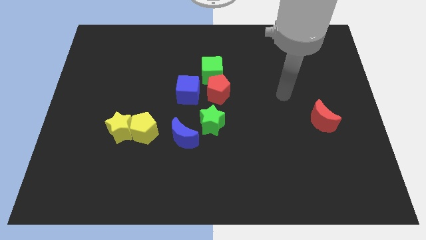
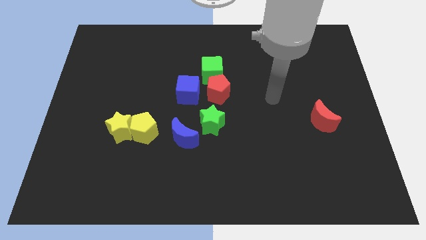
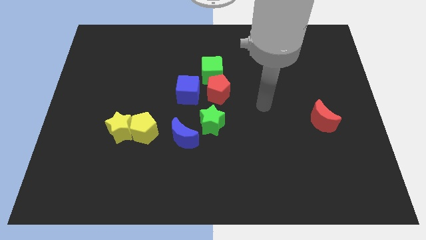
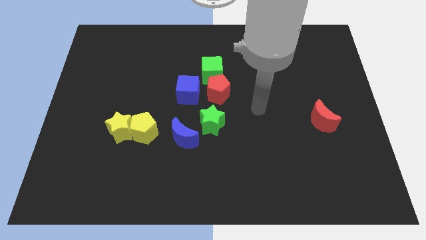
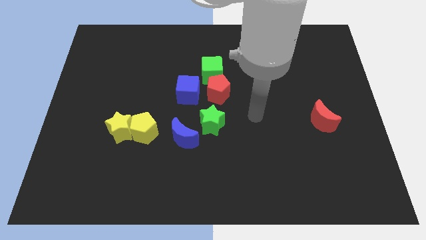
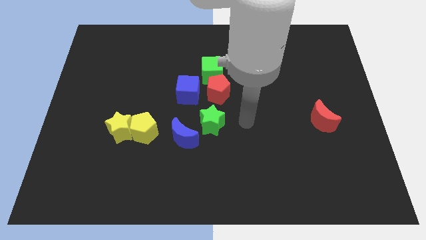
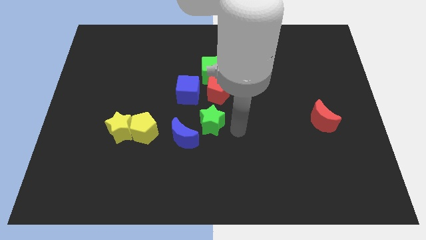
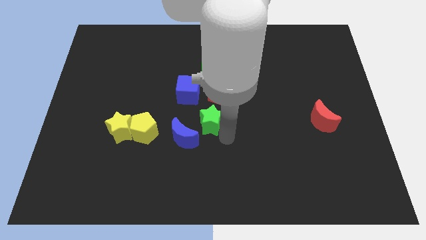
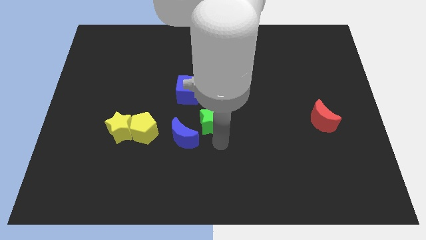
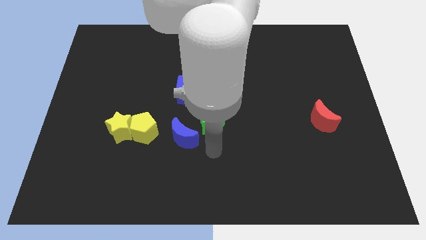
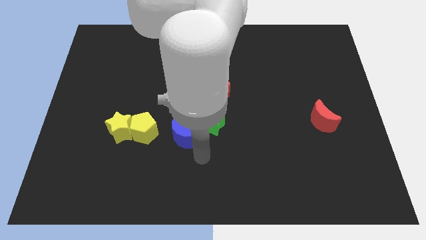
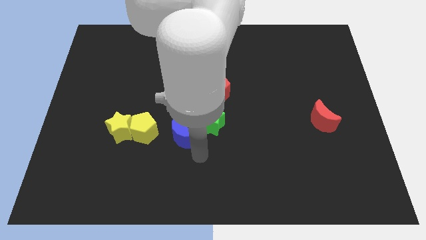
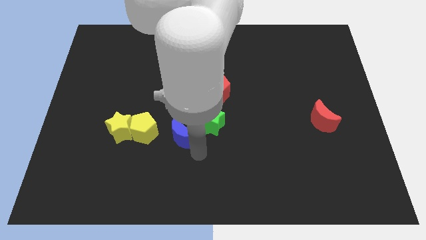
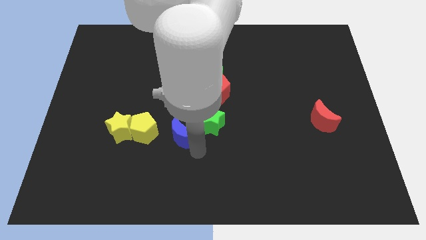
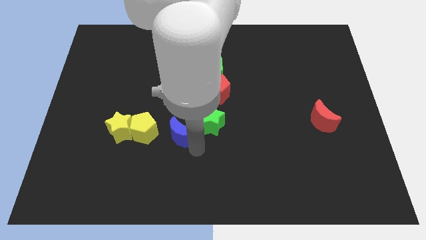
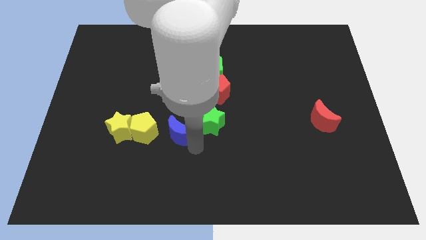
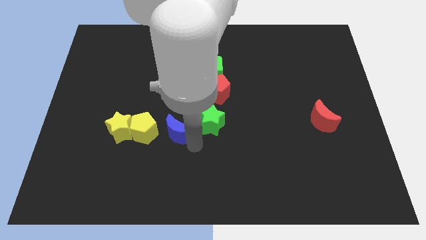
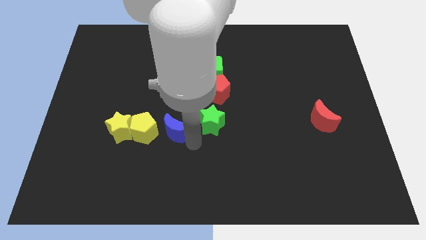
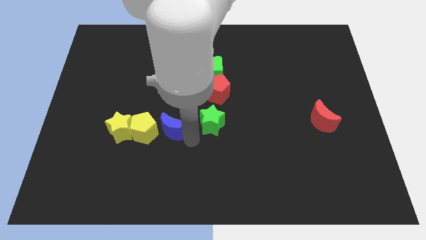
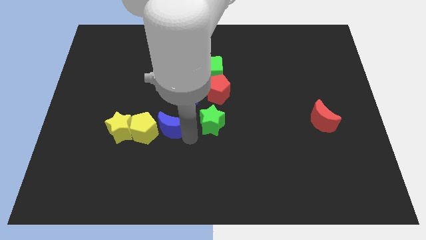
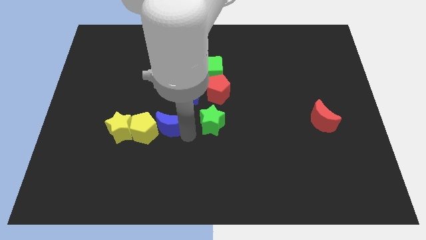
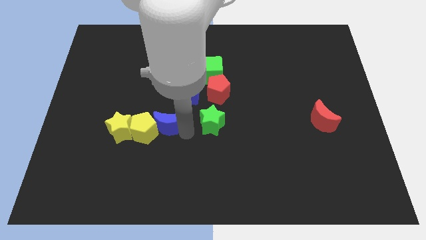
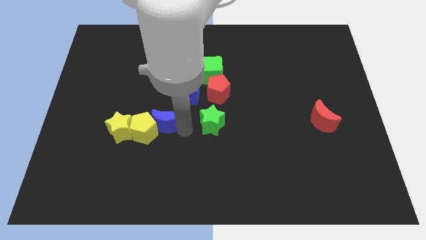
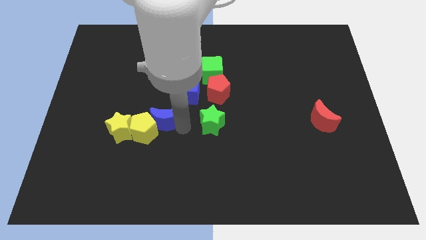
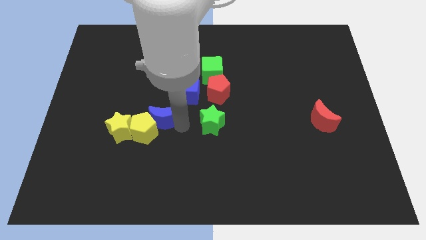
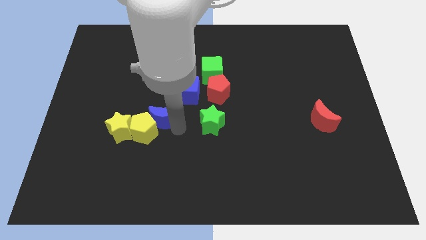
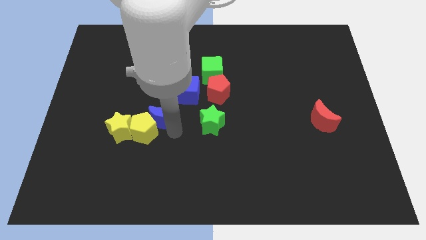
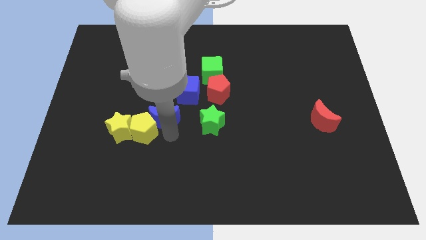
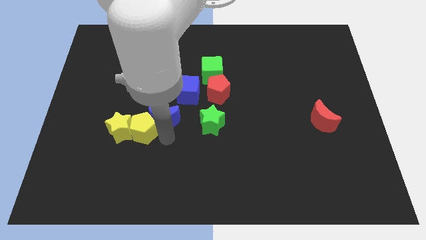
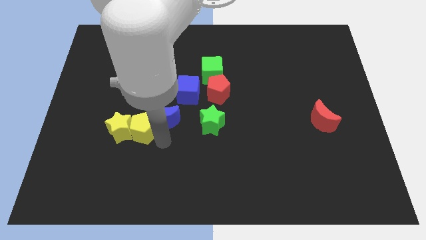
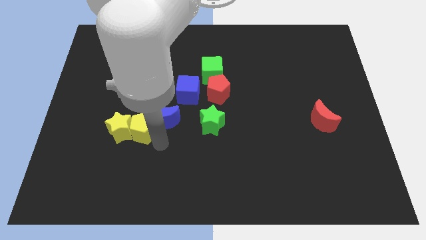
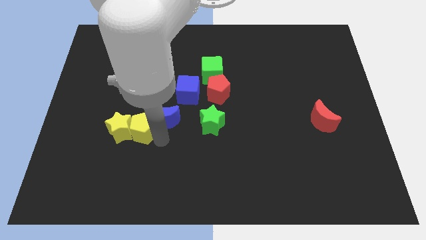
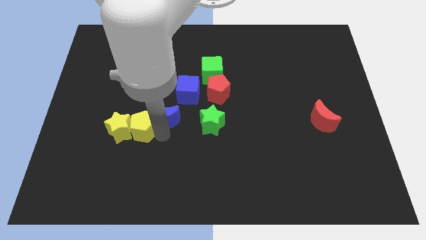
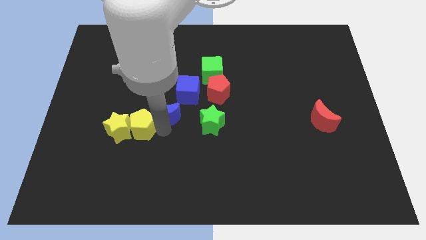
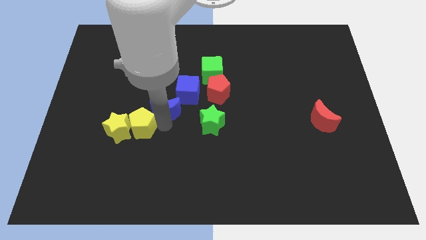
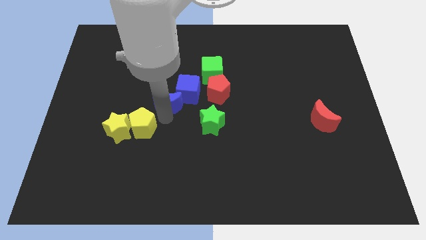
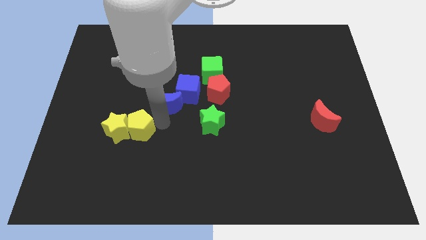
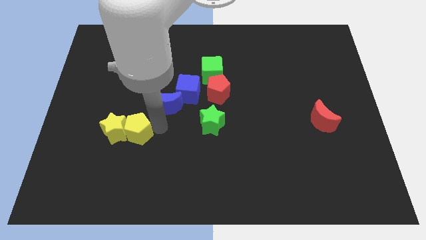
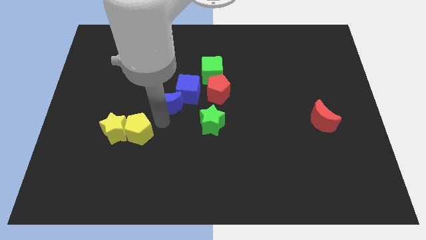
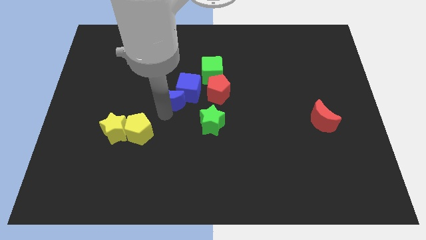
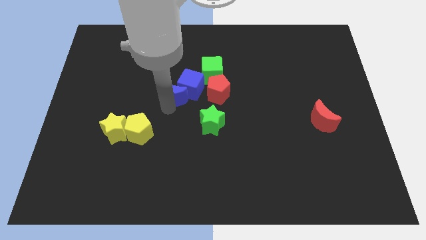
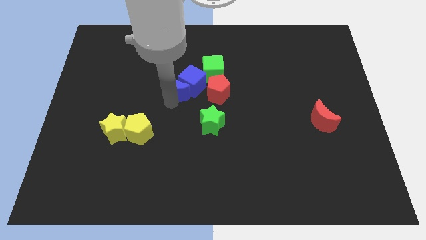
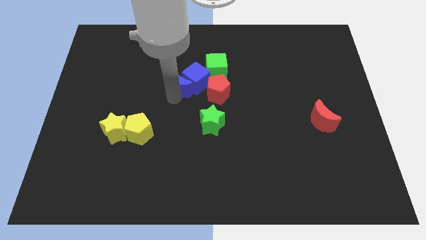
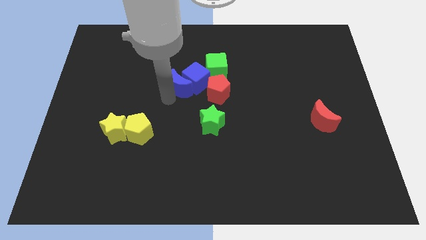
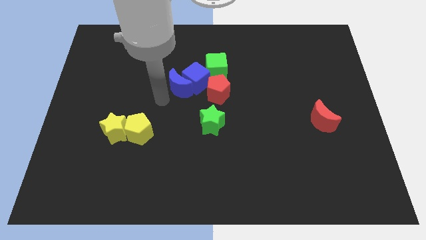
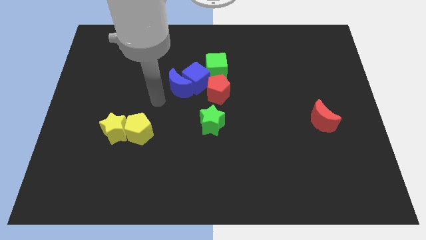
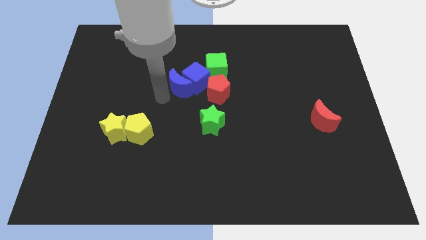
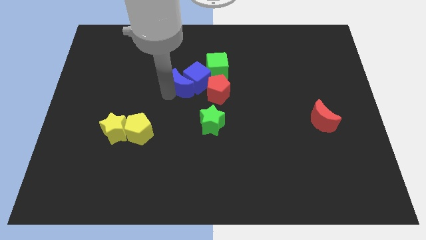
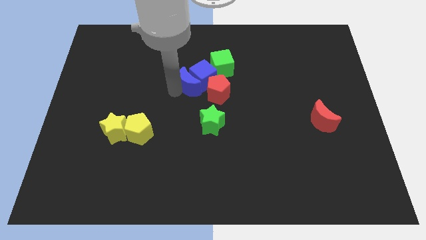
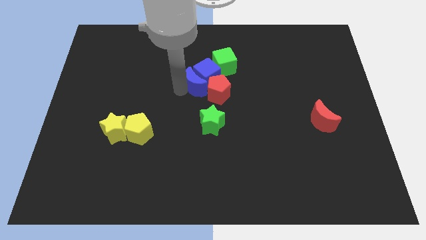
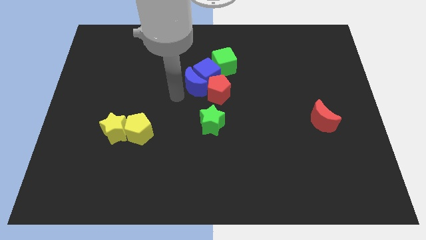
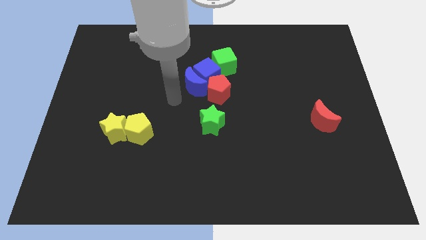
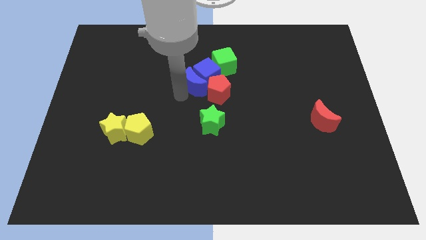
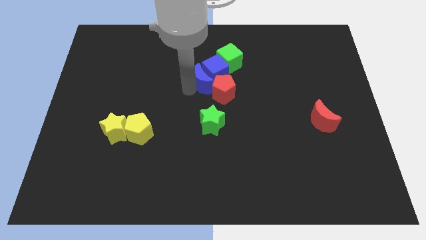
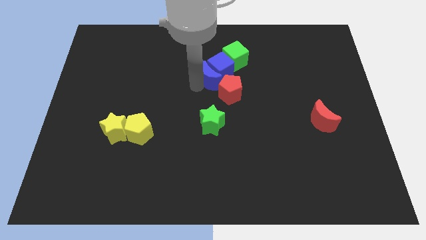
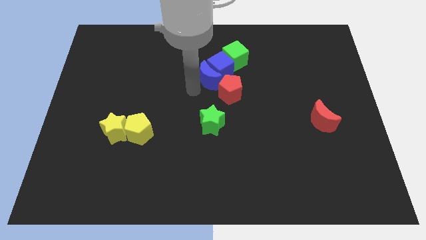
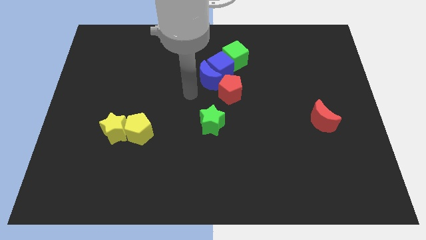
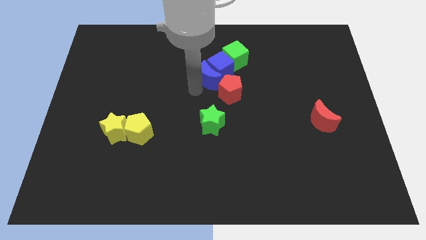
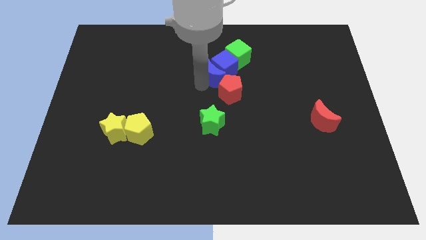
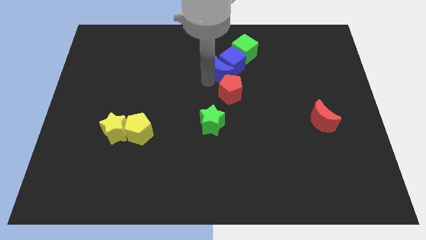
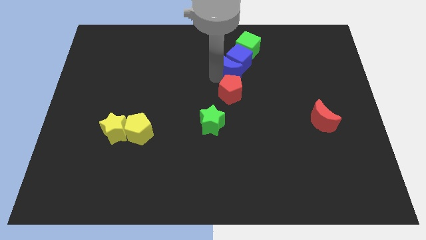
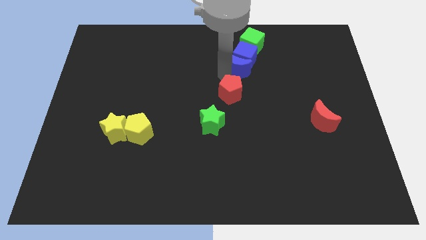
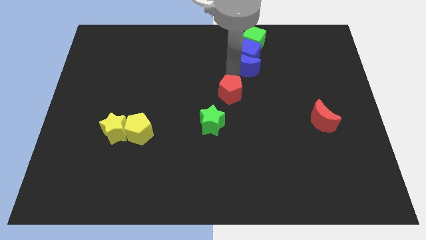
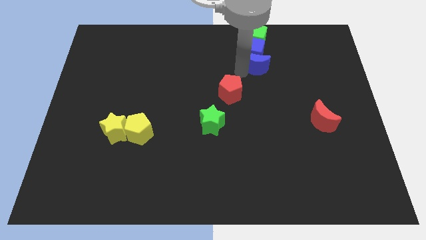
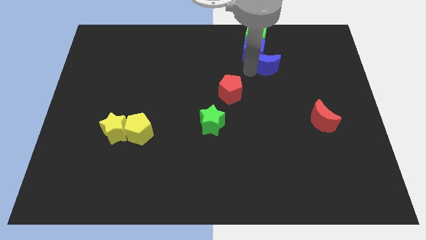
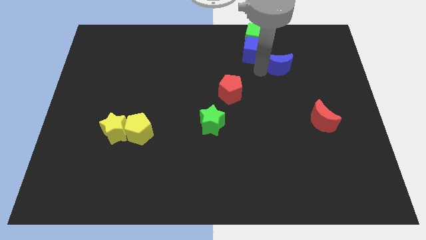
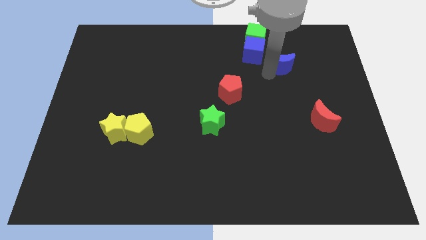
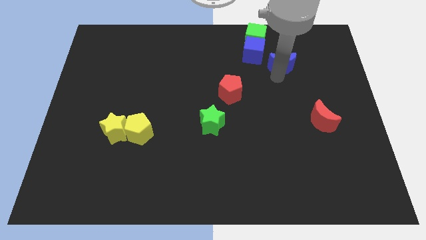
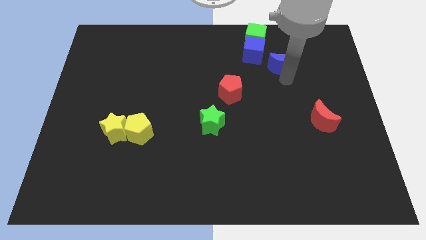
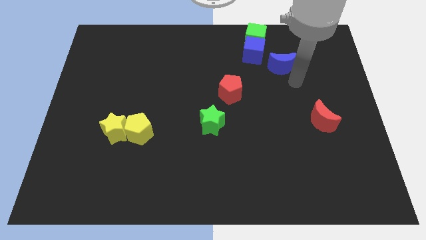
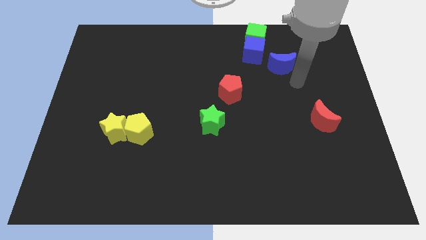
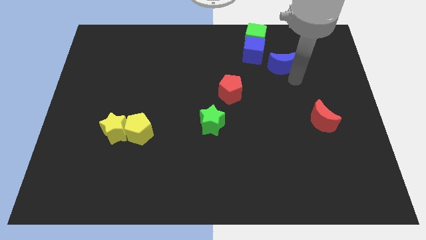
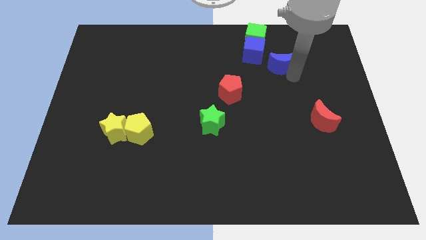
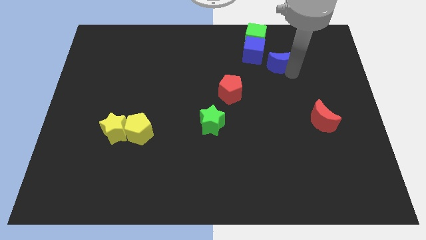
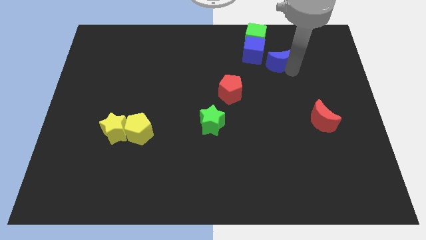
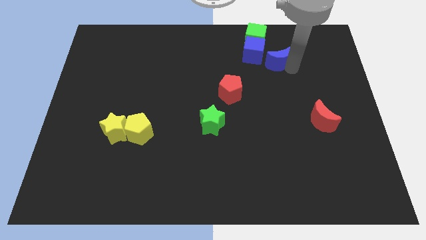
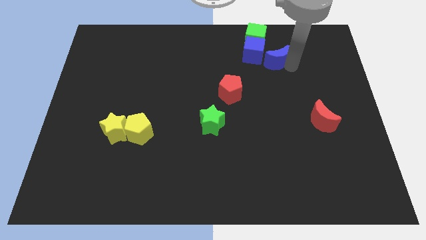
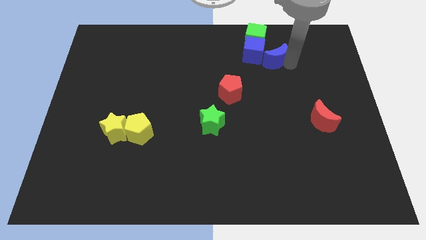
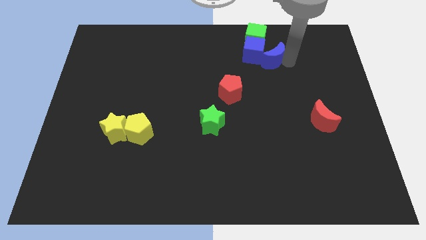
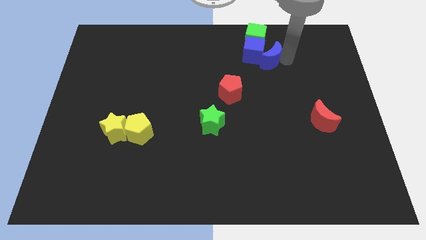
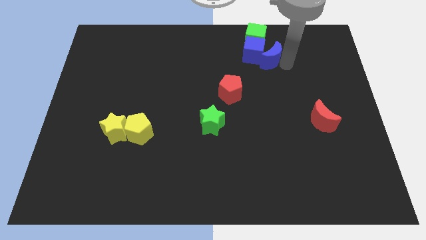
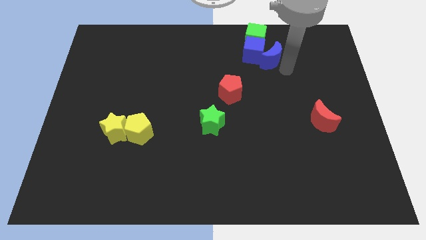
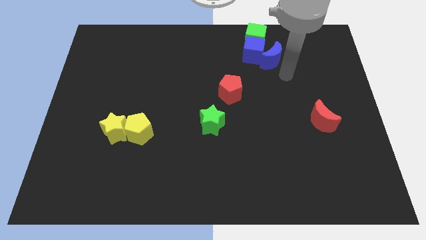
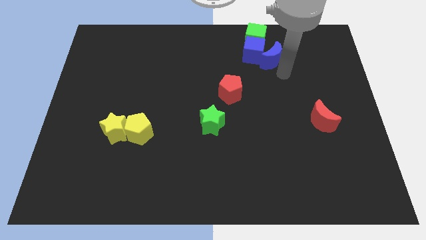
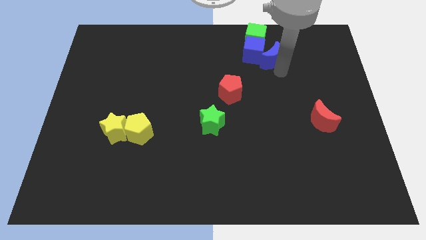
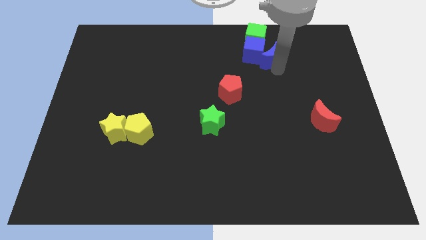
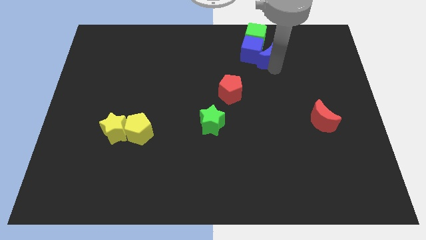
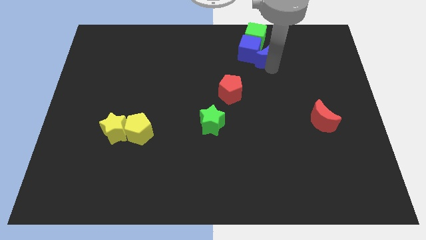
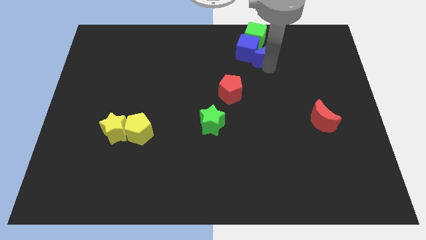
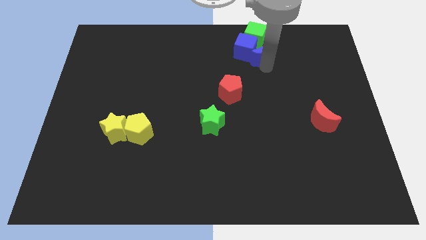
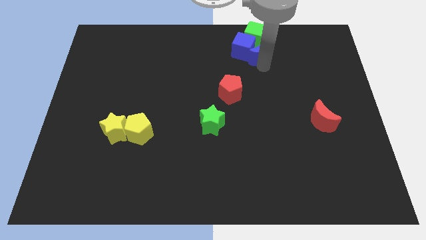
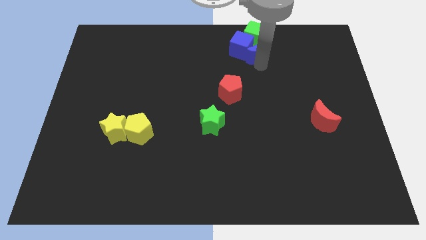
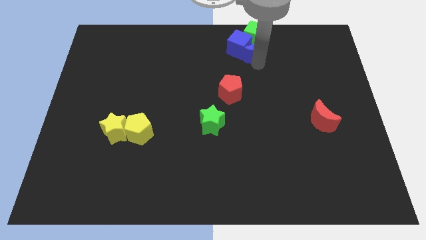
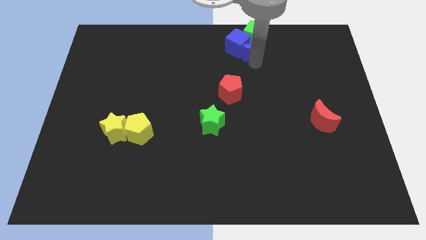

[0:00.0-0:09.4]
move the blue moon next to the green cube
